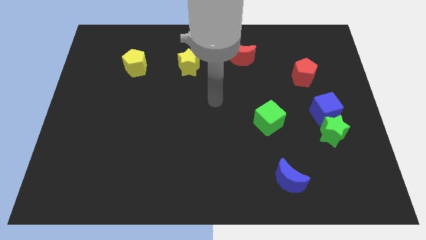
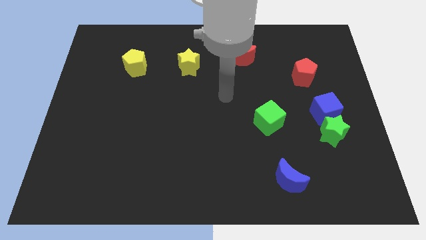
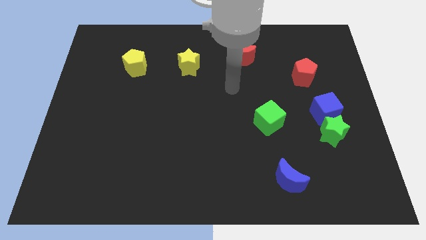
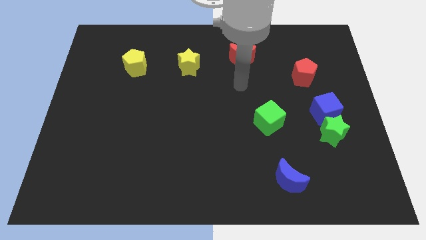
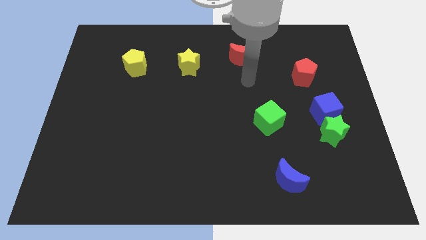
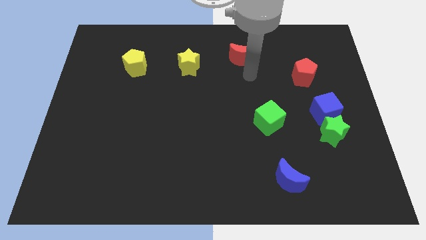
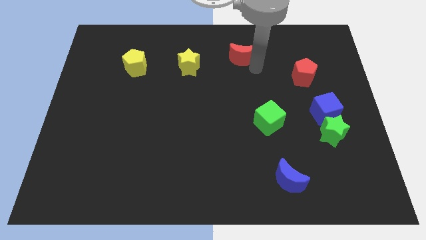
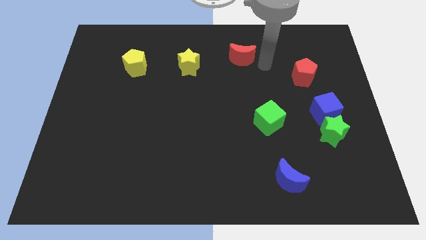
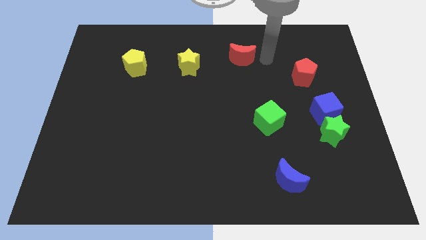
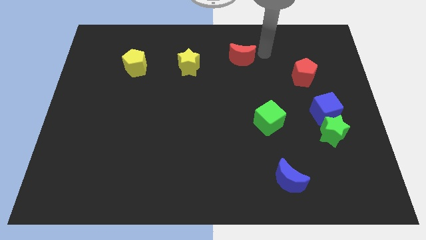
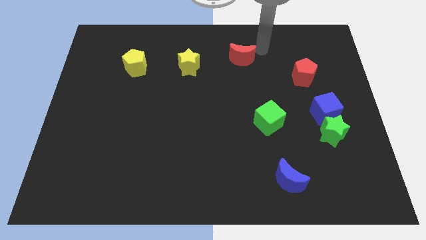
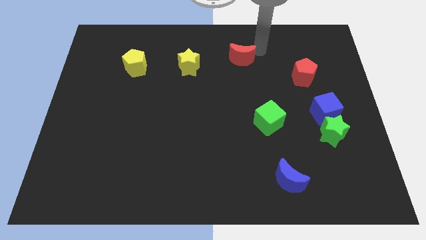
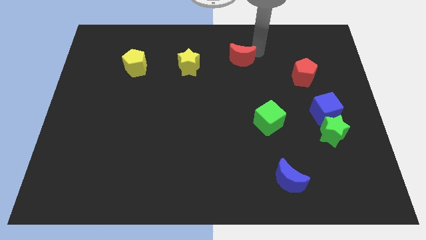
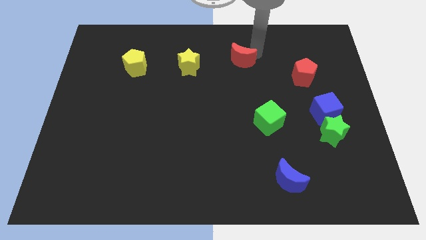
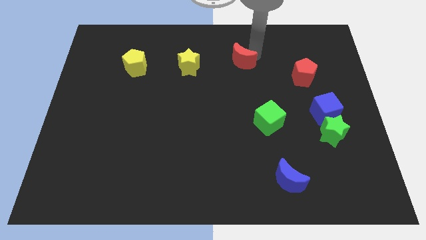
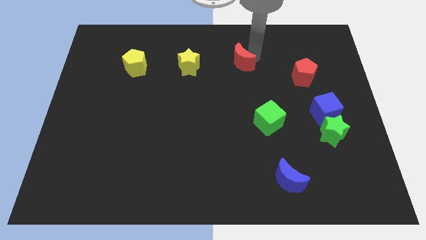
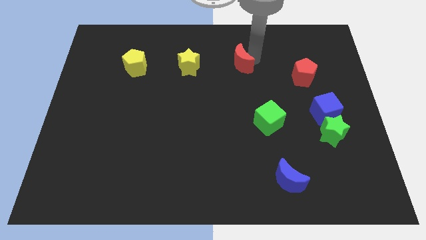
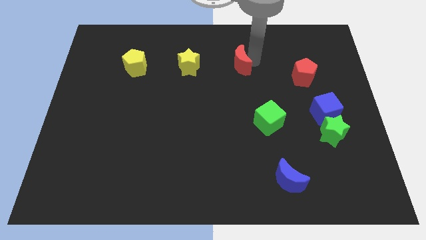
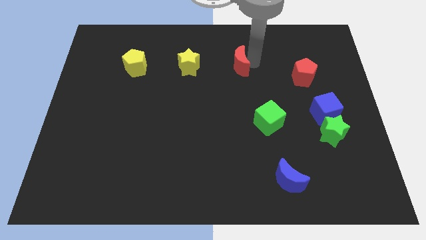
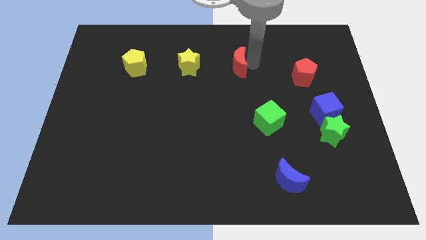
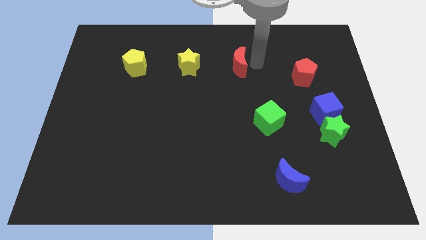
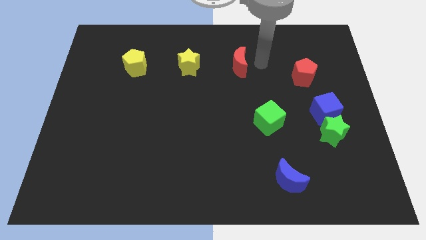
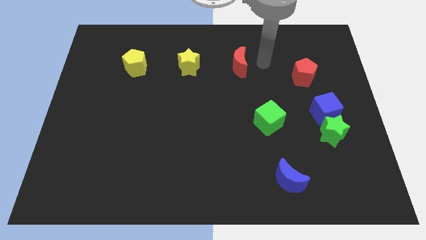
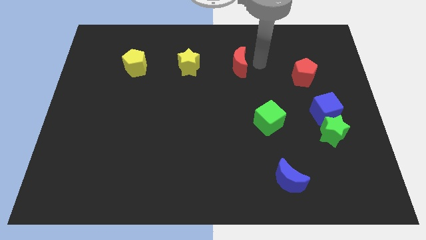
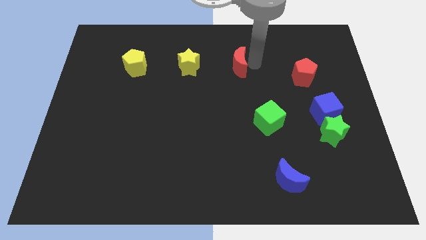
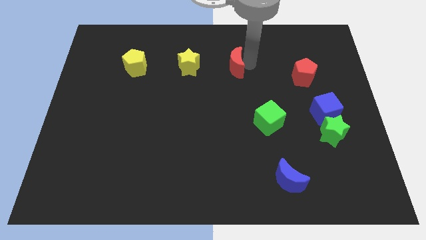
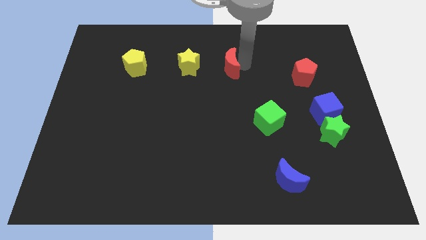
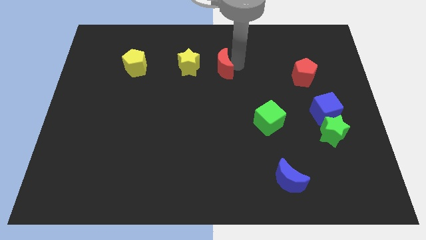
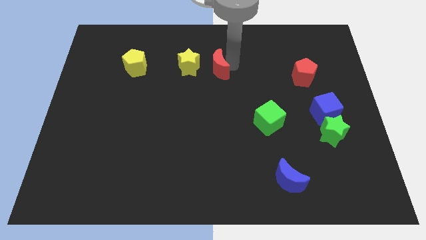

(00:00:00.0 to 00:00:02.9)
push the red moon a little downwards and then to the left

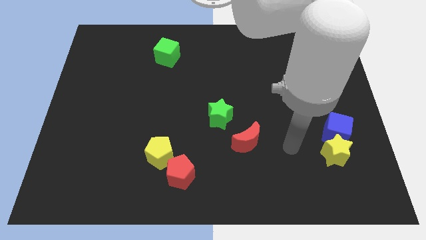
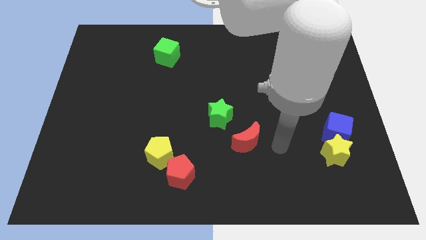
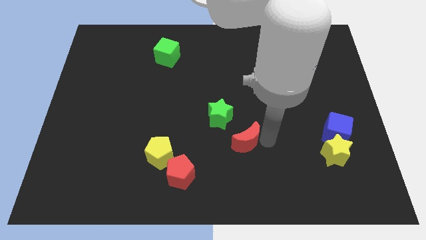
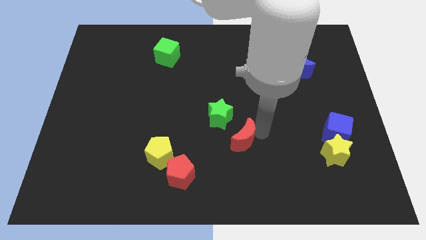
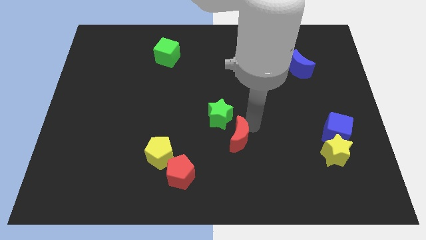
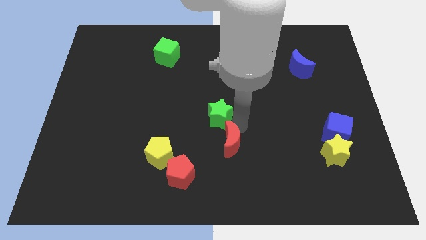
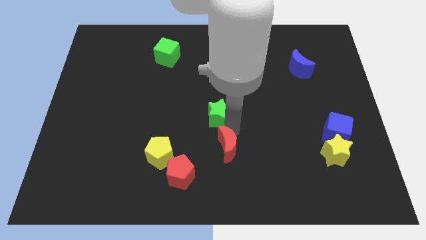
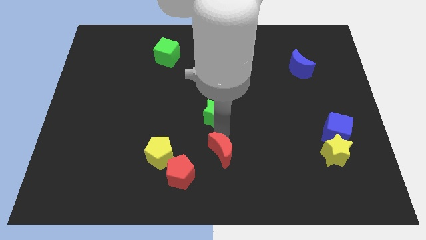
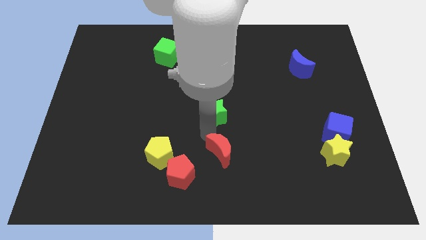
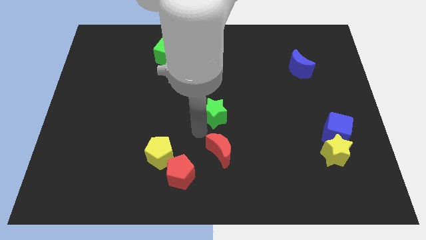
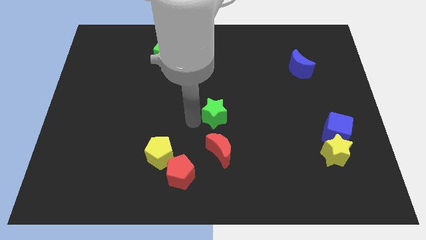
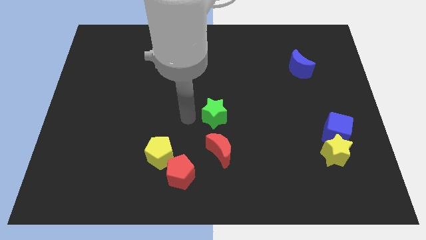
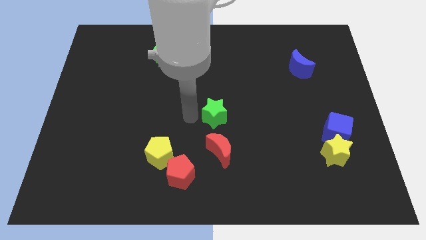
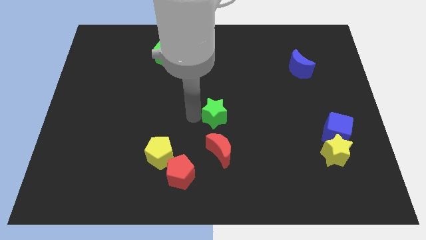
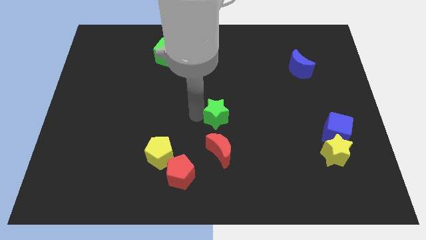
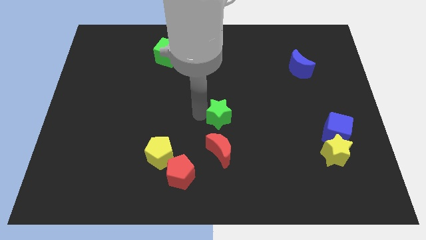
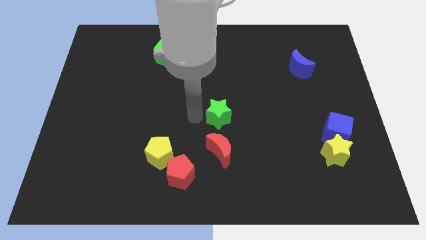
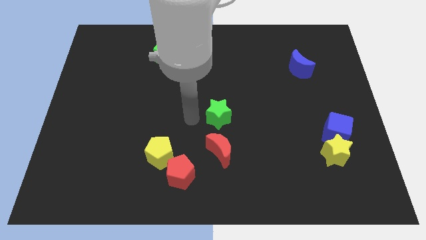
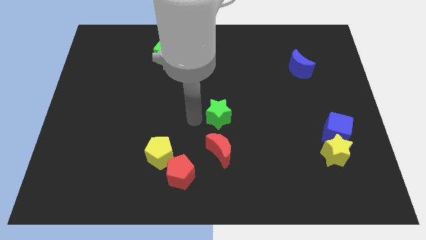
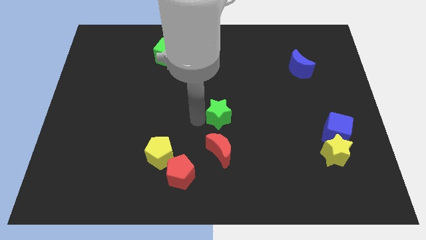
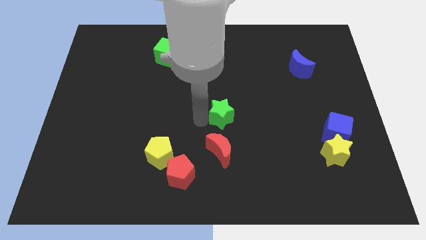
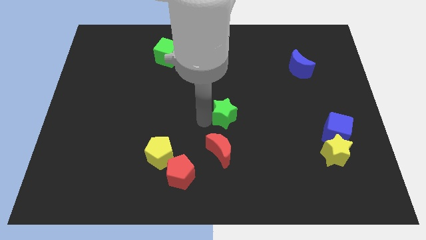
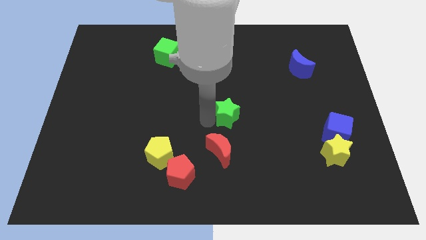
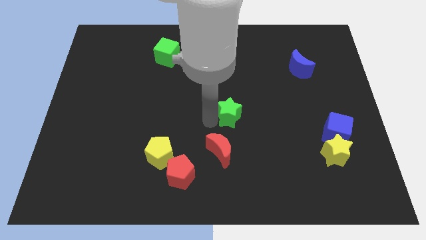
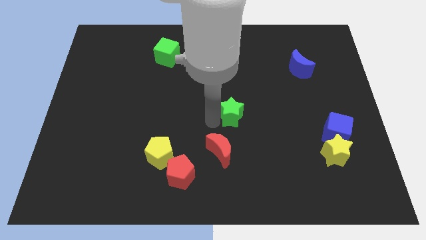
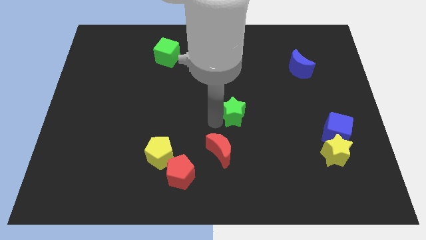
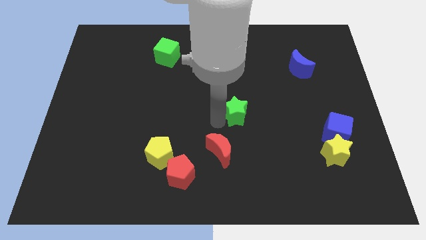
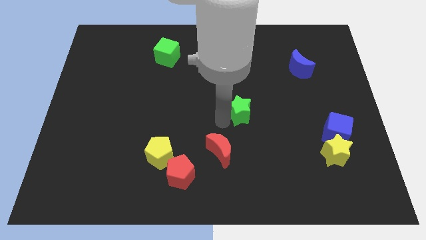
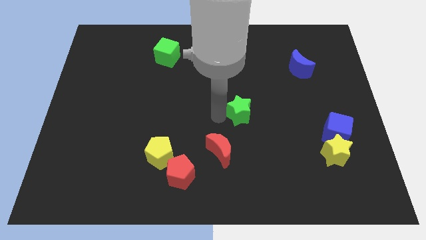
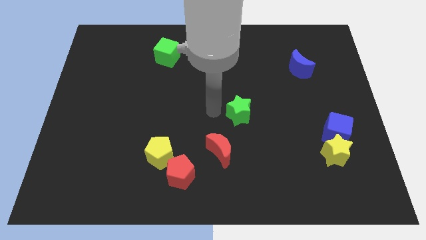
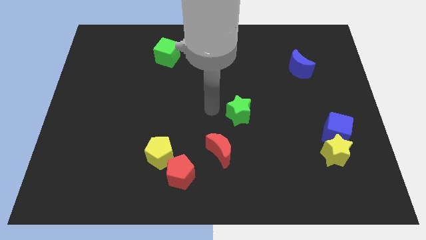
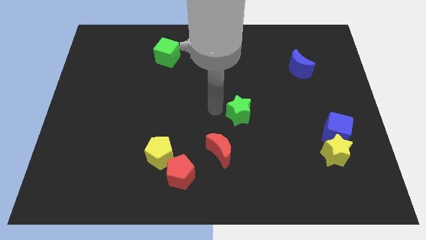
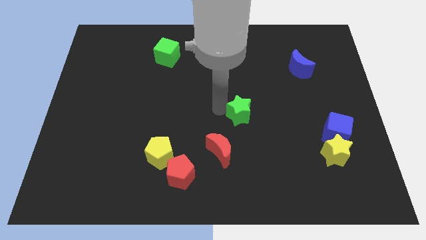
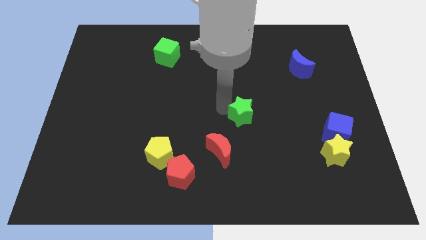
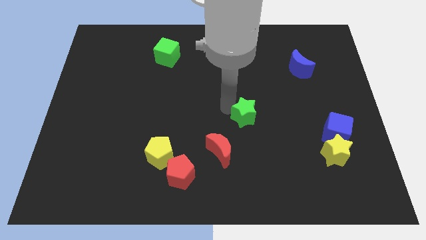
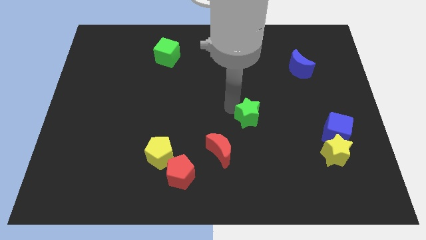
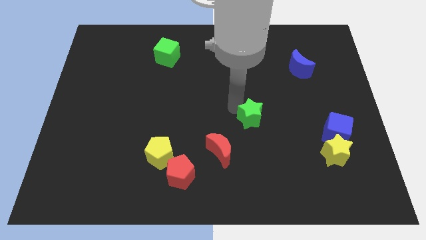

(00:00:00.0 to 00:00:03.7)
slightly slide the green star right

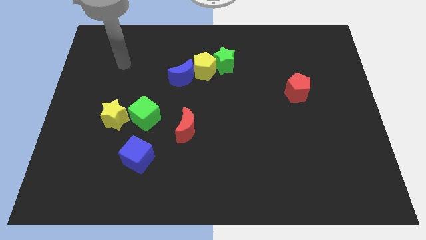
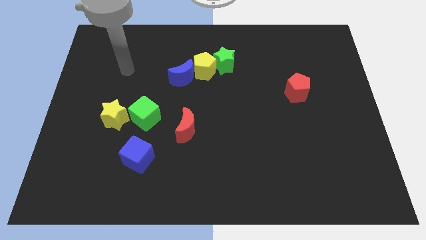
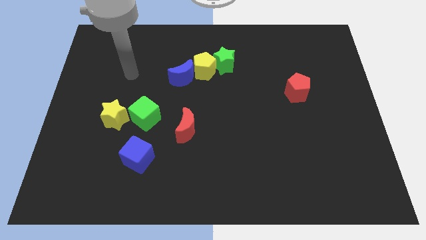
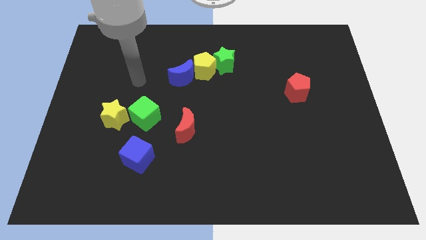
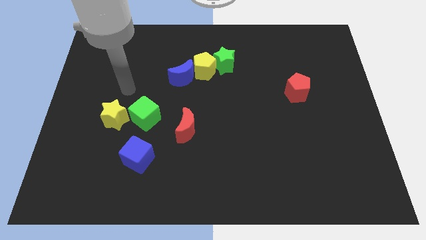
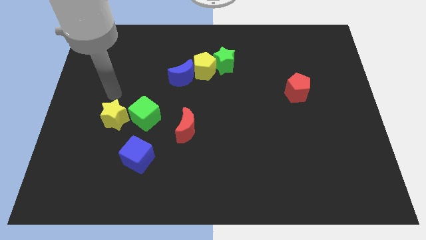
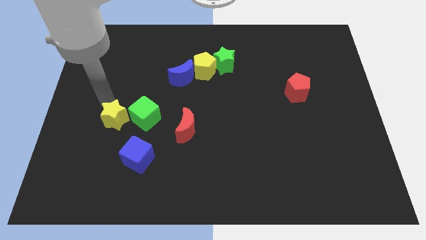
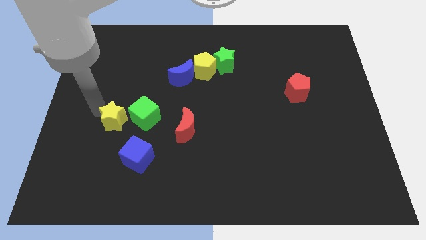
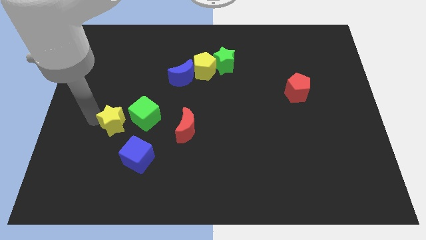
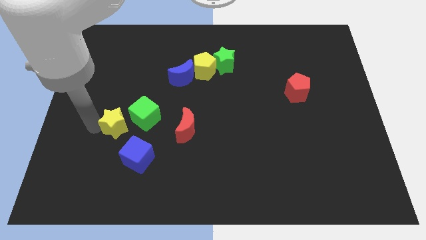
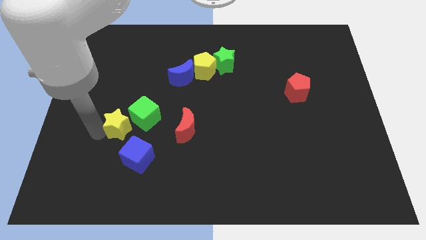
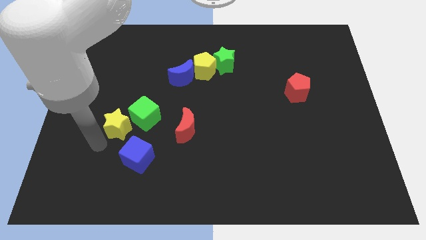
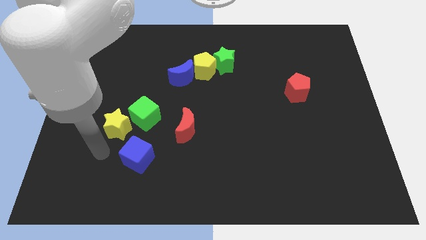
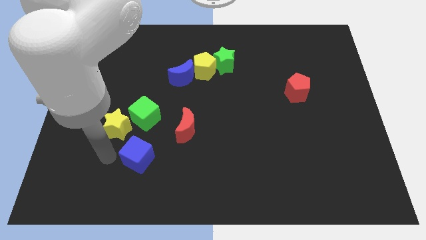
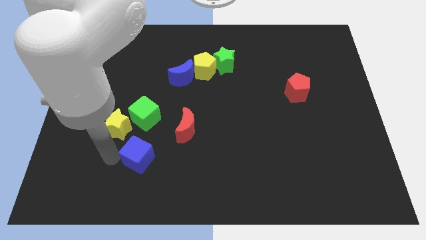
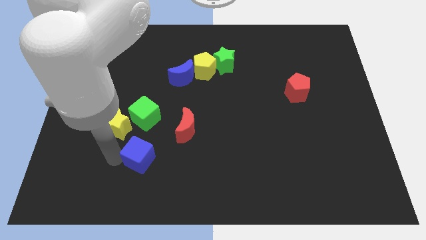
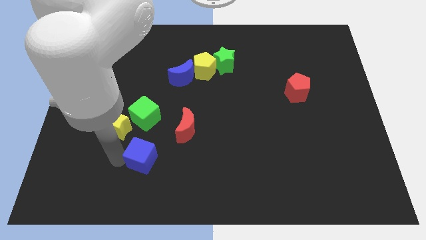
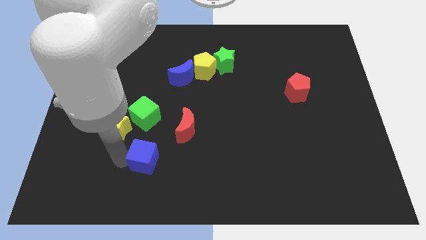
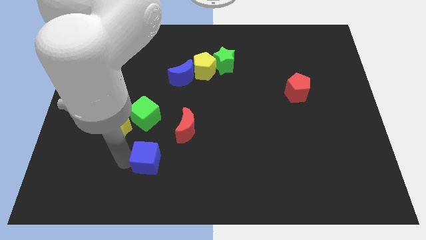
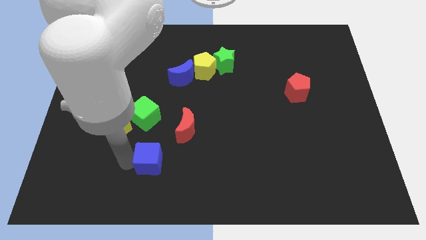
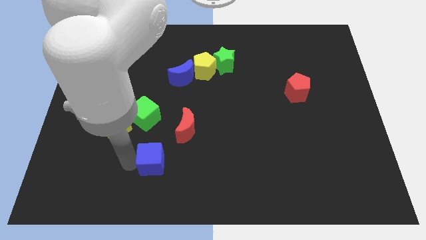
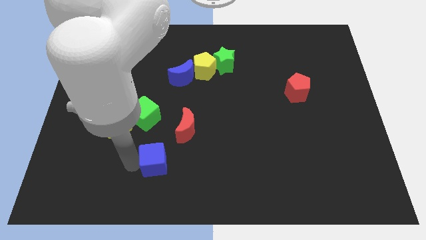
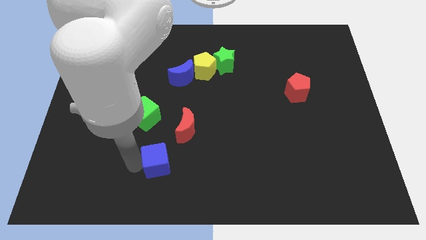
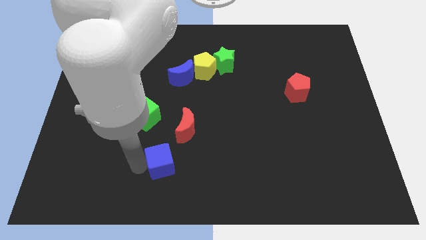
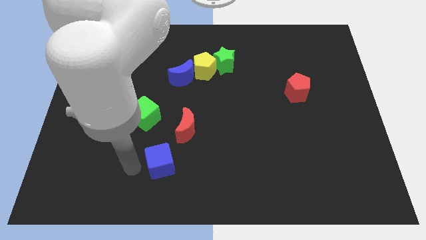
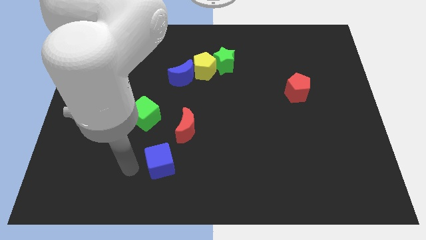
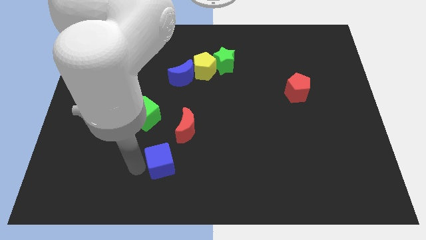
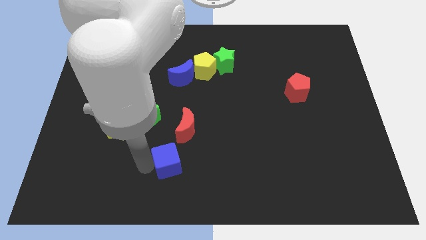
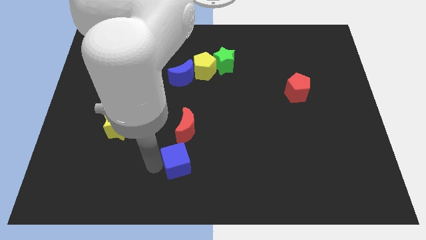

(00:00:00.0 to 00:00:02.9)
slide the blue cube a little to the right
